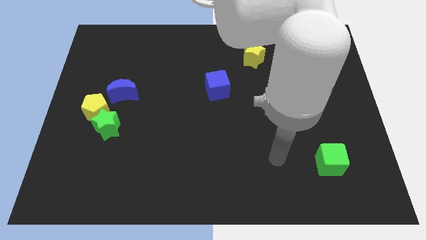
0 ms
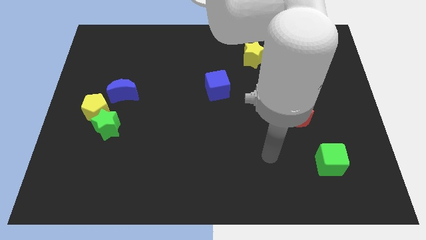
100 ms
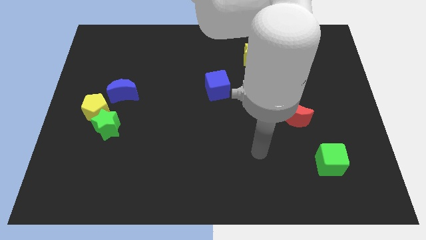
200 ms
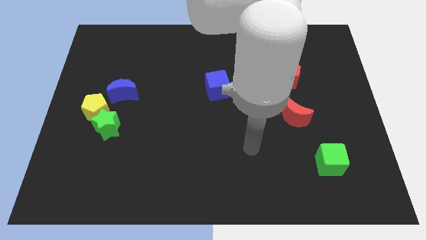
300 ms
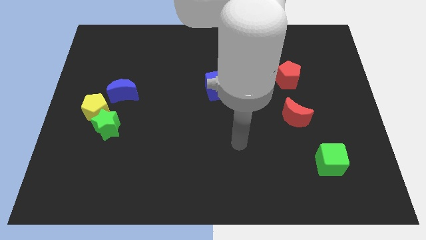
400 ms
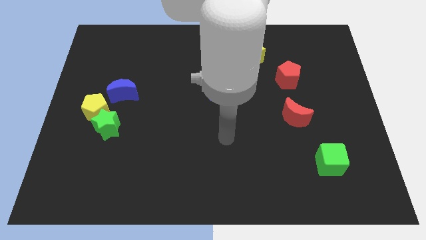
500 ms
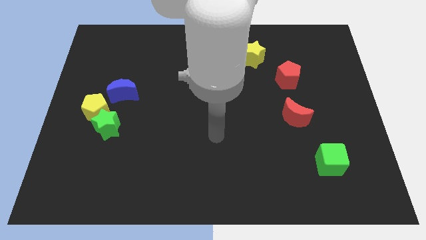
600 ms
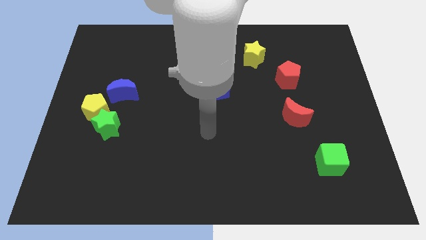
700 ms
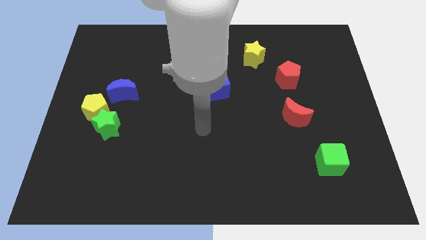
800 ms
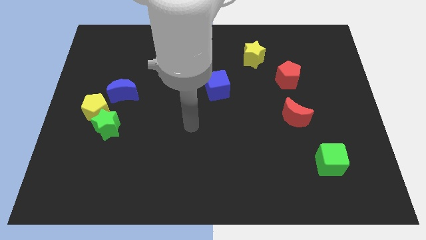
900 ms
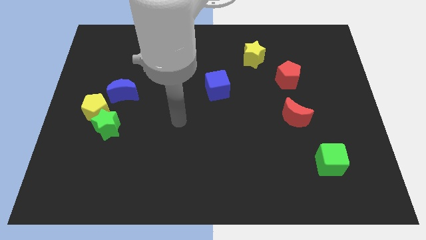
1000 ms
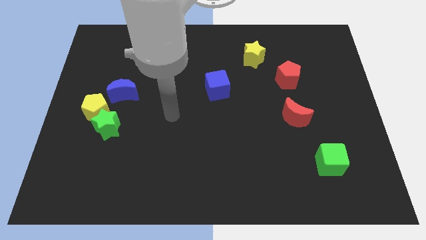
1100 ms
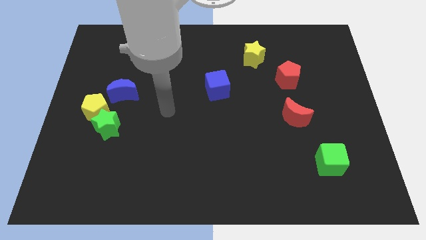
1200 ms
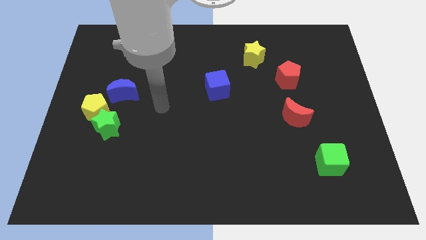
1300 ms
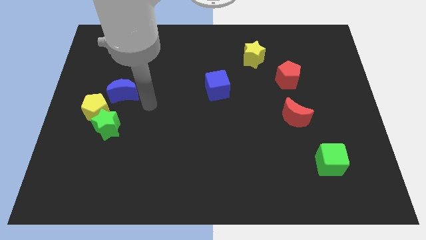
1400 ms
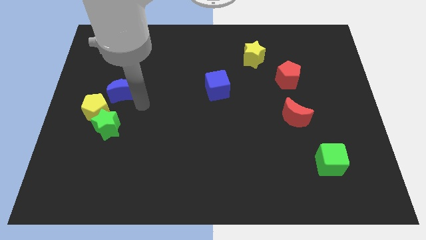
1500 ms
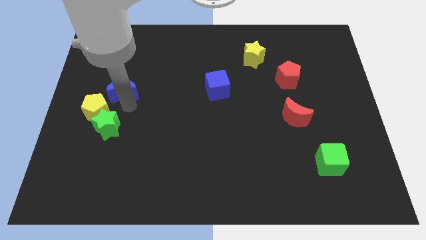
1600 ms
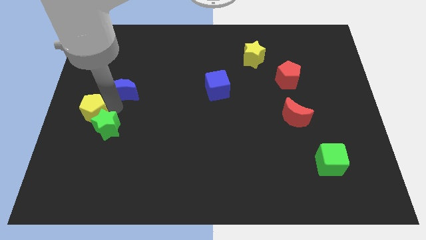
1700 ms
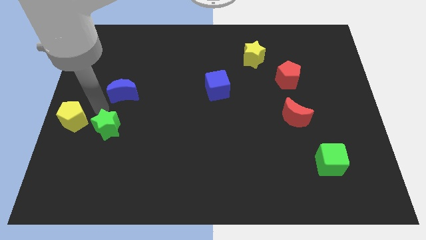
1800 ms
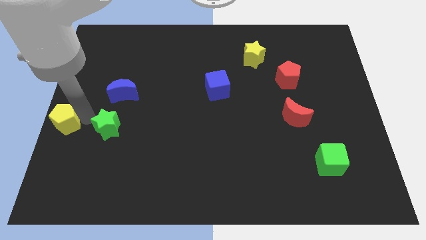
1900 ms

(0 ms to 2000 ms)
pull the green star apart from the yellow pentagon

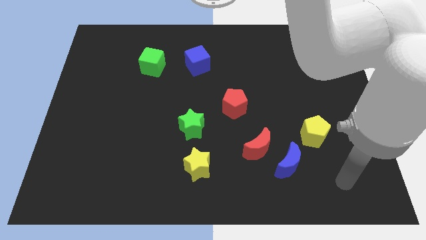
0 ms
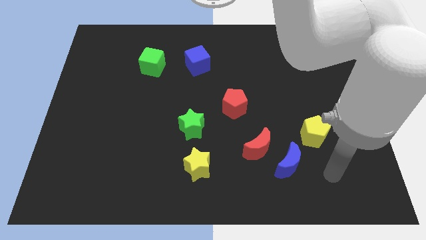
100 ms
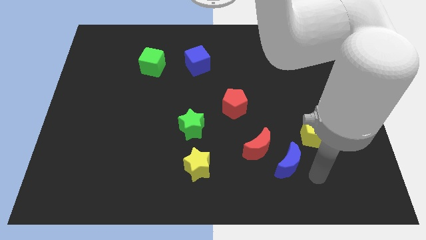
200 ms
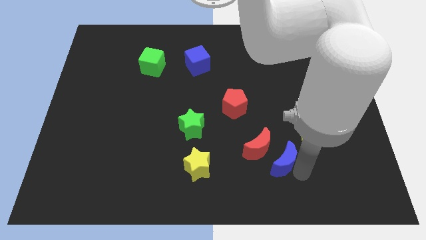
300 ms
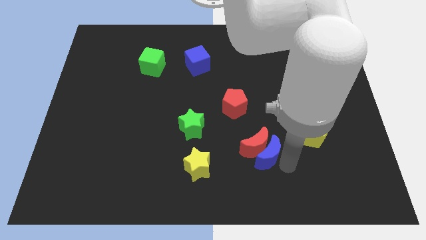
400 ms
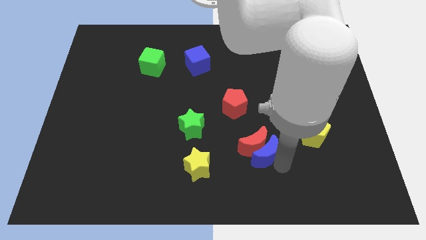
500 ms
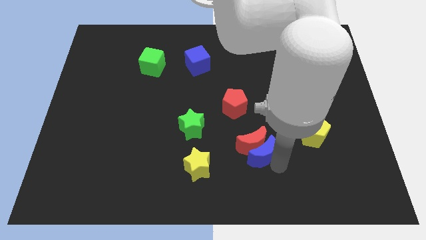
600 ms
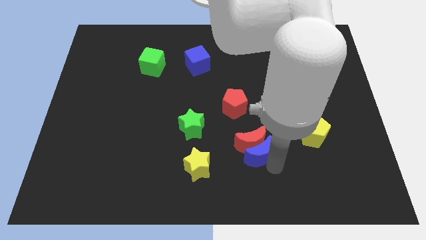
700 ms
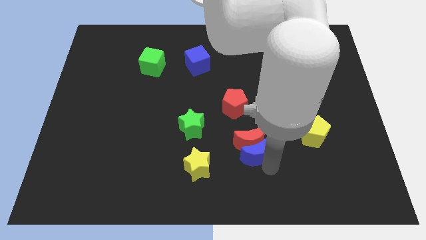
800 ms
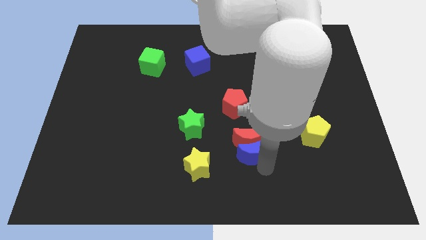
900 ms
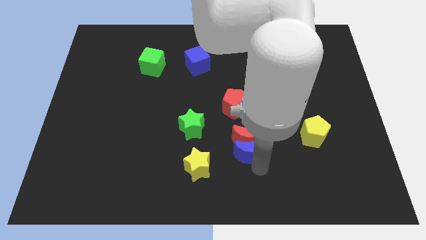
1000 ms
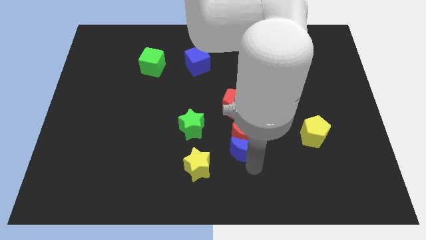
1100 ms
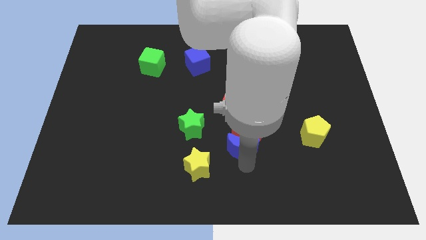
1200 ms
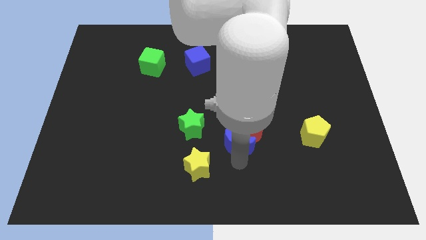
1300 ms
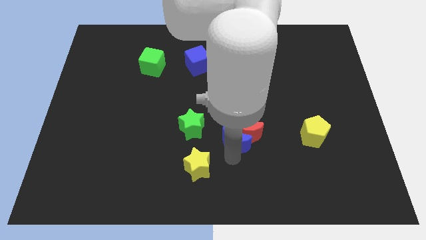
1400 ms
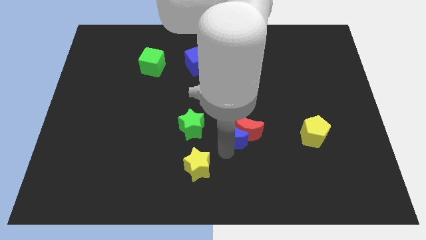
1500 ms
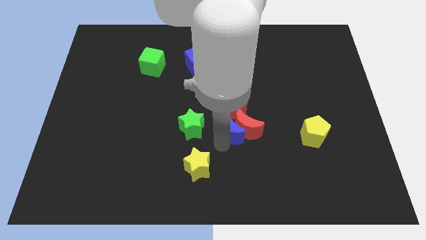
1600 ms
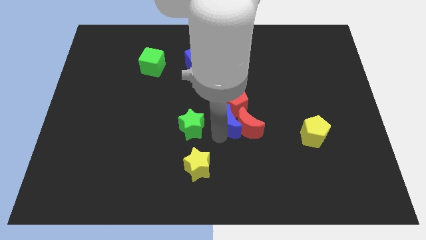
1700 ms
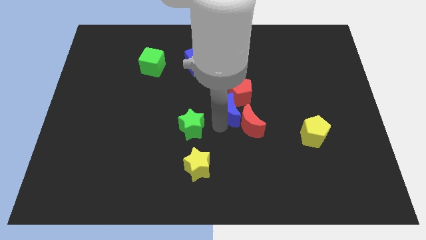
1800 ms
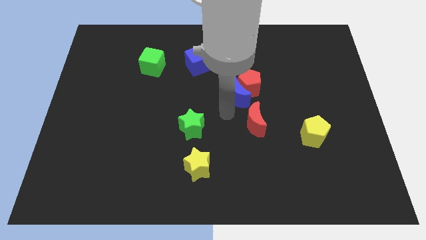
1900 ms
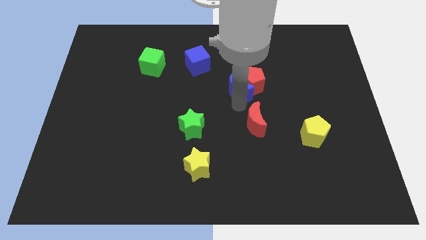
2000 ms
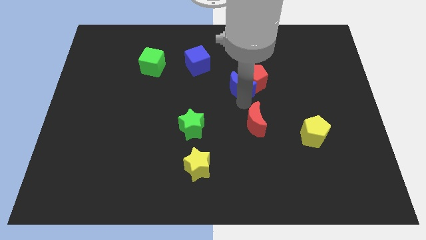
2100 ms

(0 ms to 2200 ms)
separate the red moon from the blue moon

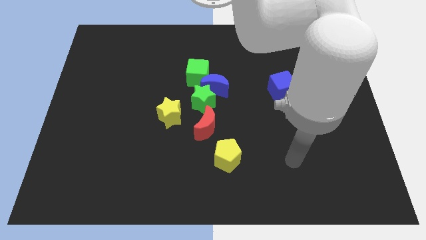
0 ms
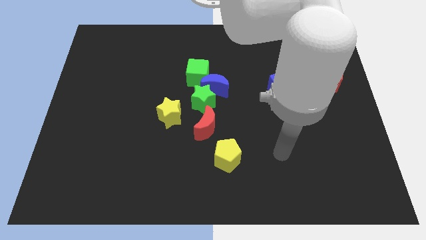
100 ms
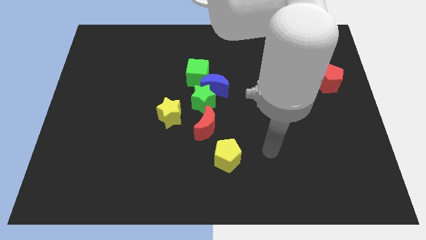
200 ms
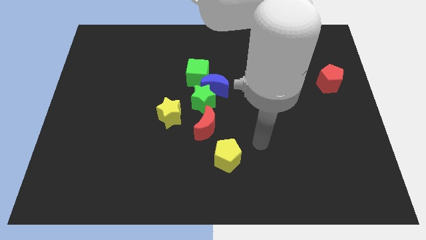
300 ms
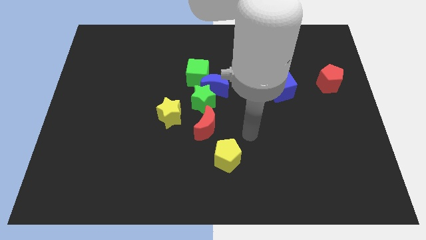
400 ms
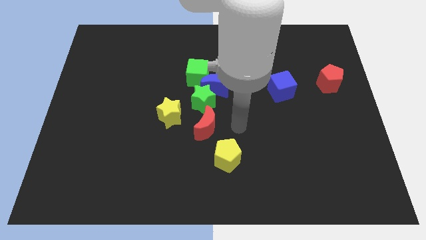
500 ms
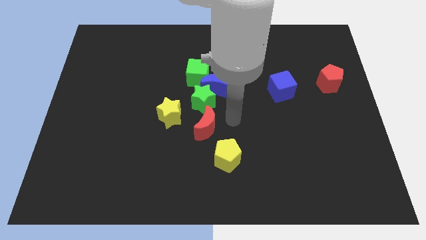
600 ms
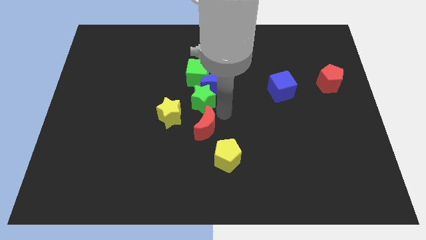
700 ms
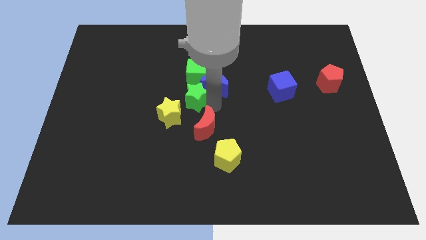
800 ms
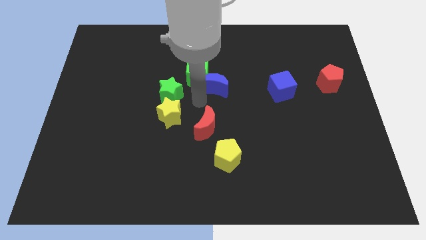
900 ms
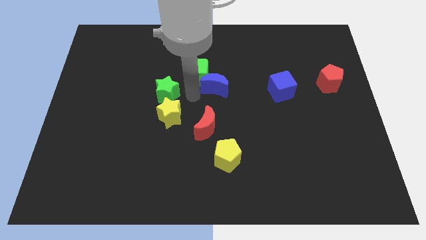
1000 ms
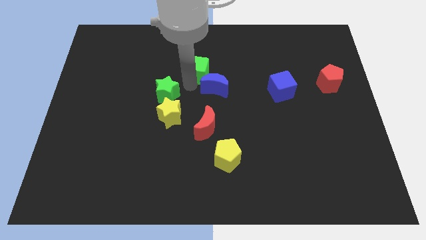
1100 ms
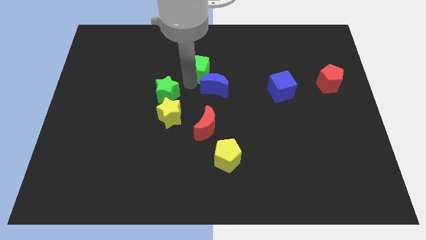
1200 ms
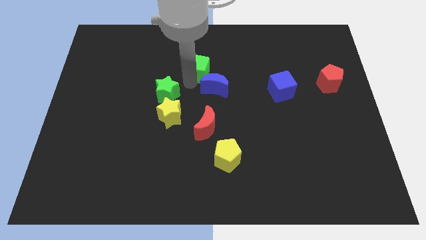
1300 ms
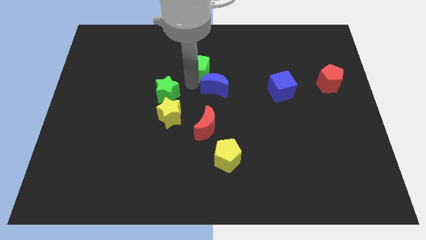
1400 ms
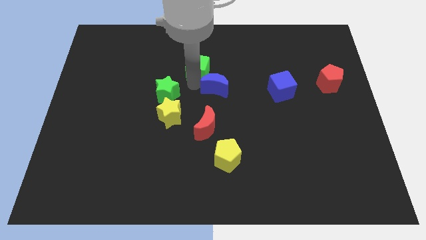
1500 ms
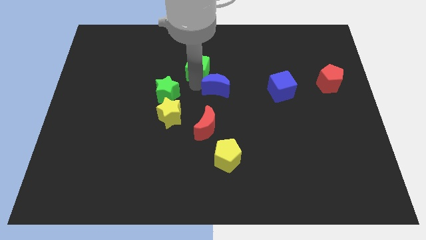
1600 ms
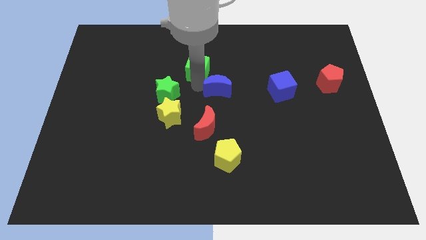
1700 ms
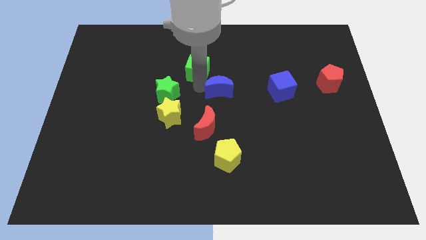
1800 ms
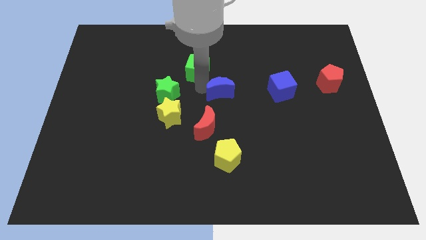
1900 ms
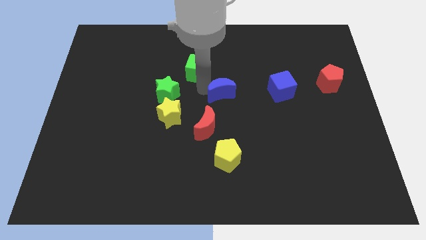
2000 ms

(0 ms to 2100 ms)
pull the blue moon apart from the green star and green cube

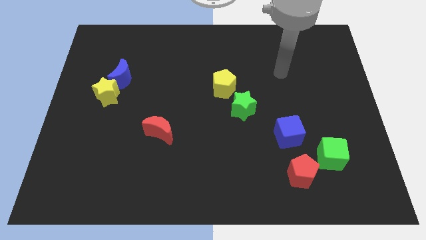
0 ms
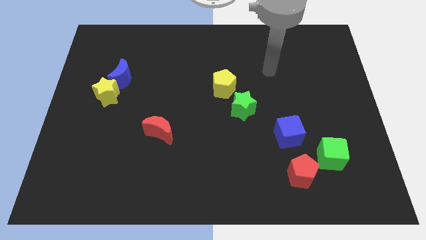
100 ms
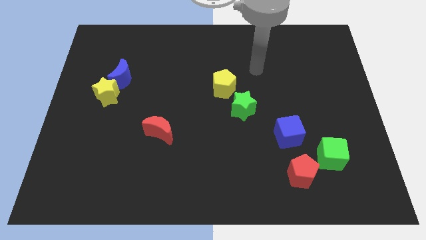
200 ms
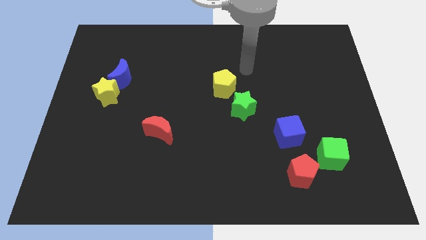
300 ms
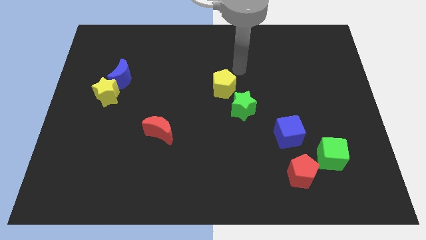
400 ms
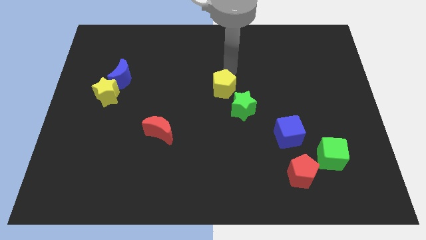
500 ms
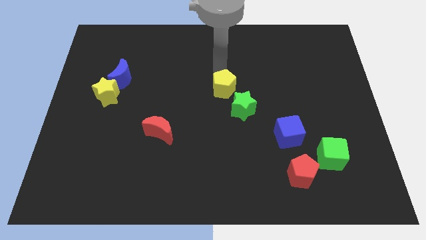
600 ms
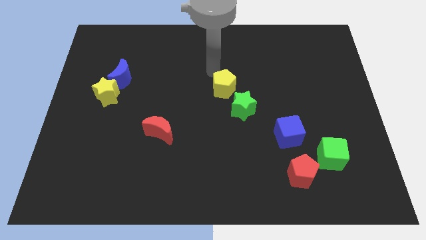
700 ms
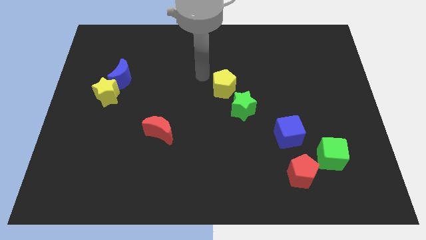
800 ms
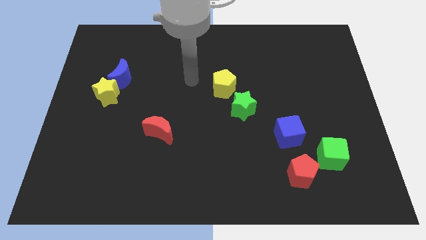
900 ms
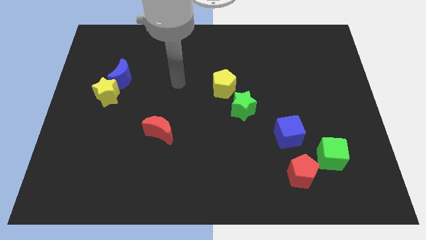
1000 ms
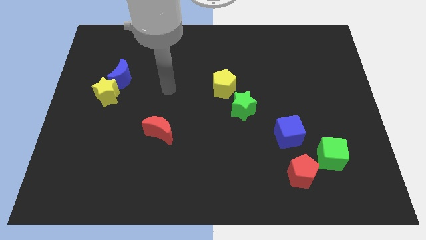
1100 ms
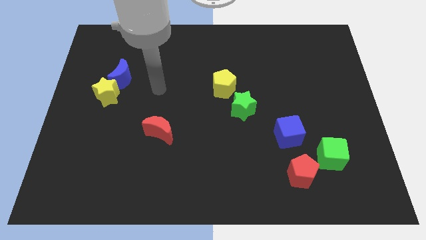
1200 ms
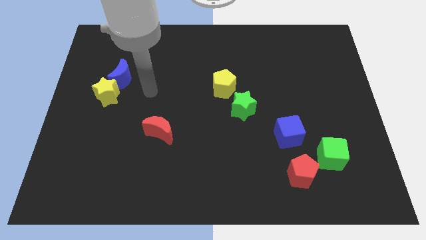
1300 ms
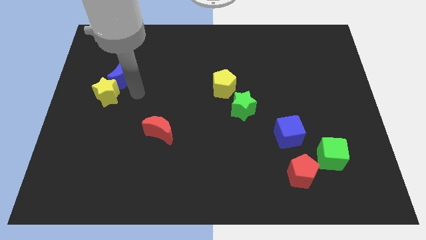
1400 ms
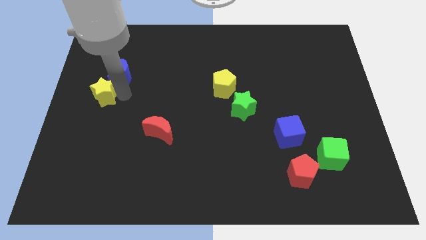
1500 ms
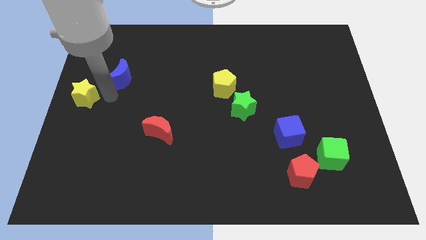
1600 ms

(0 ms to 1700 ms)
move the blue moon away from the yellow star

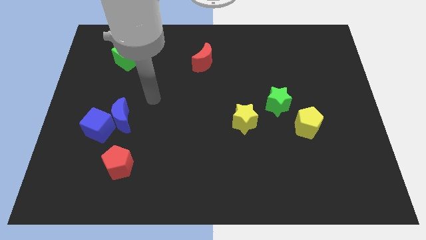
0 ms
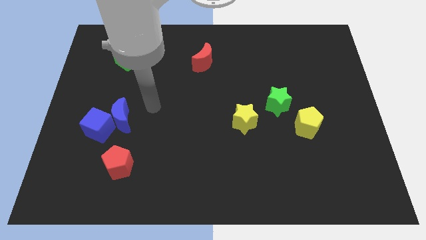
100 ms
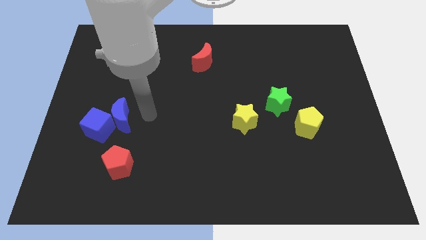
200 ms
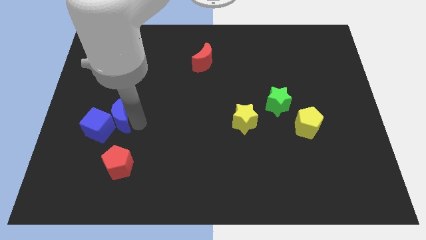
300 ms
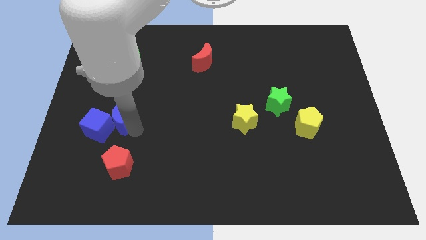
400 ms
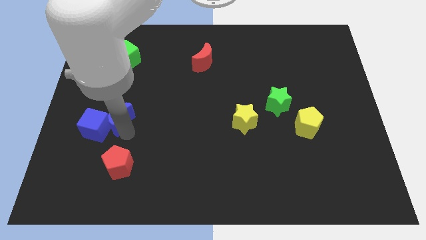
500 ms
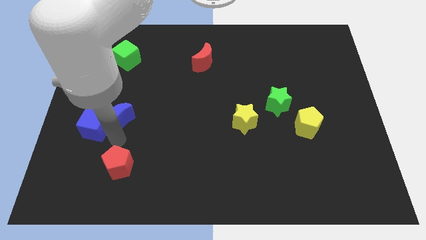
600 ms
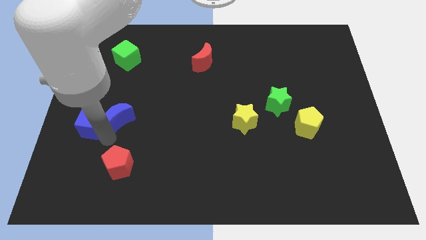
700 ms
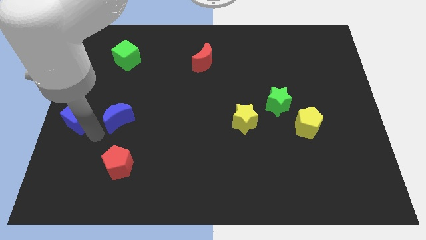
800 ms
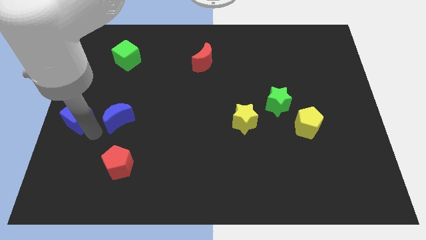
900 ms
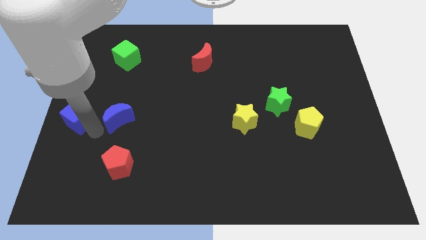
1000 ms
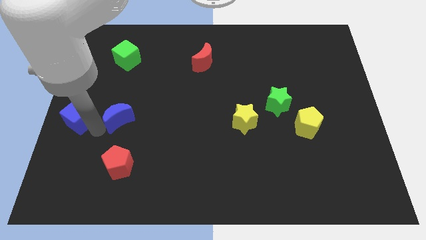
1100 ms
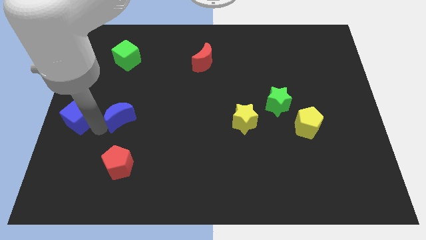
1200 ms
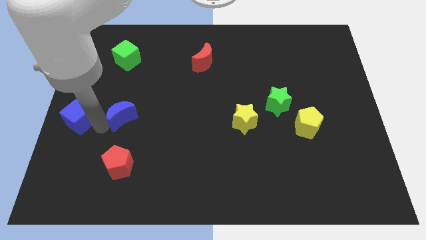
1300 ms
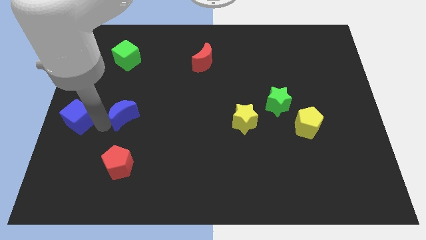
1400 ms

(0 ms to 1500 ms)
separate the blue moon from the blue cube
